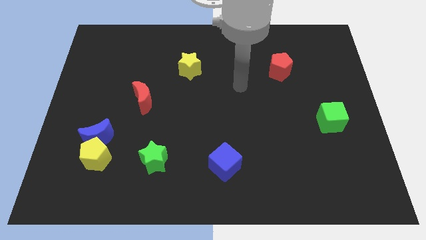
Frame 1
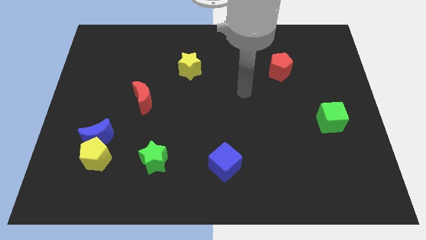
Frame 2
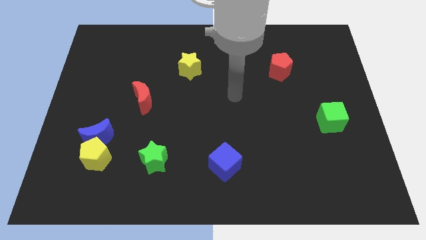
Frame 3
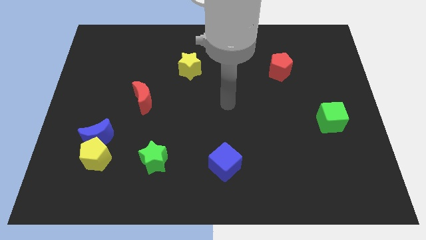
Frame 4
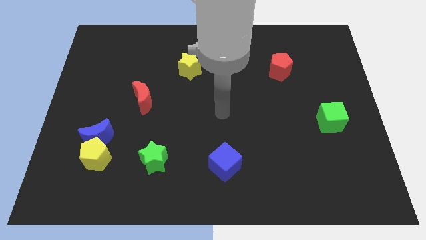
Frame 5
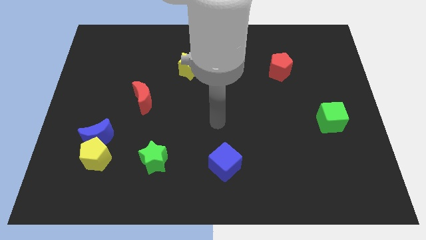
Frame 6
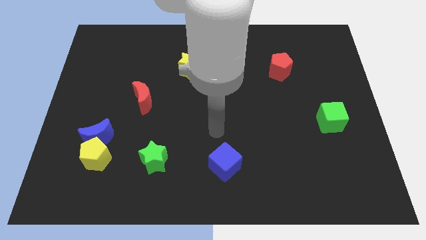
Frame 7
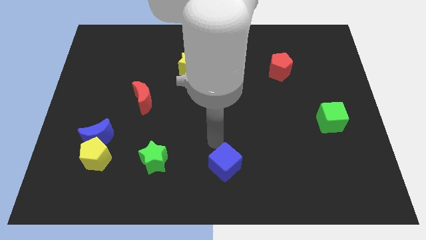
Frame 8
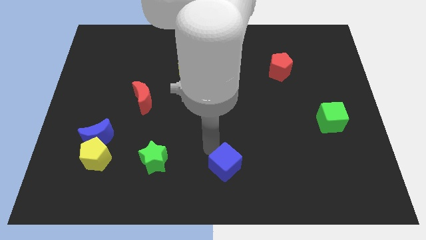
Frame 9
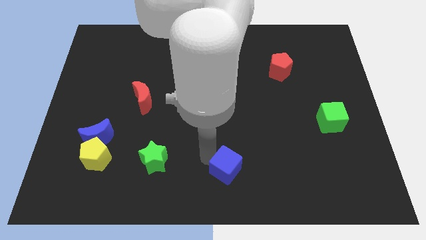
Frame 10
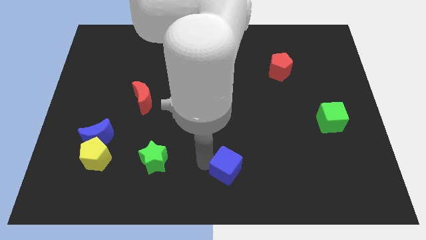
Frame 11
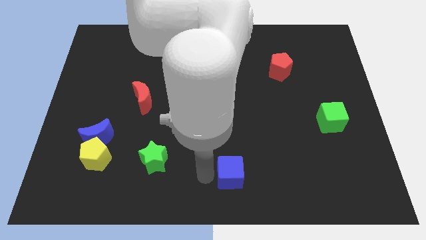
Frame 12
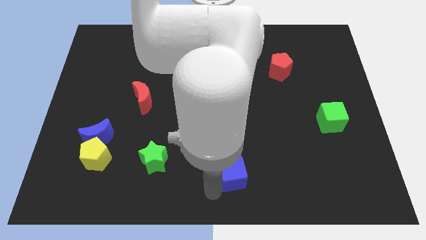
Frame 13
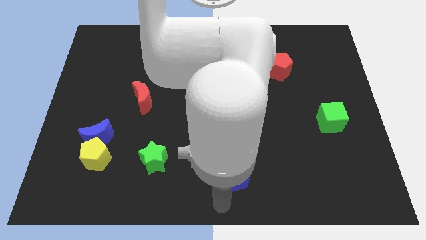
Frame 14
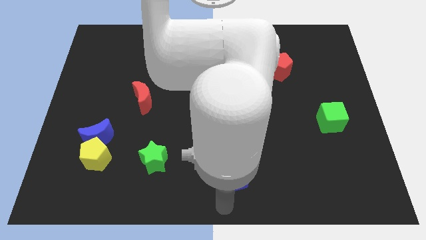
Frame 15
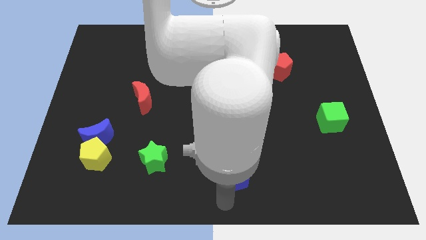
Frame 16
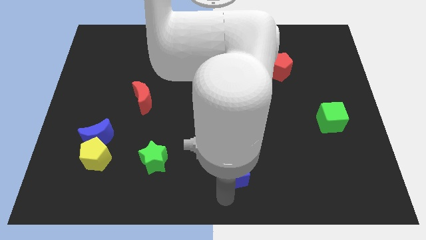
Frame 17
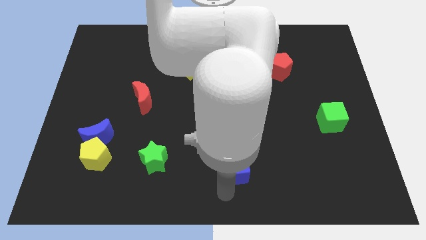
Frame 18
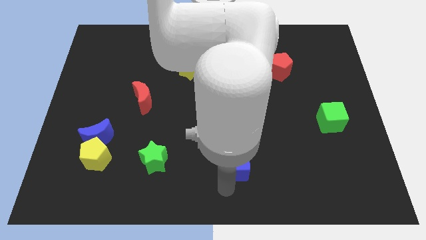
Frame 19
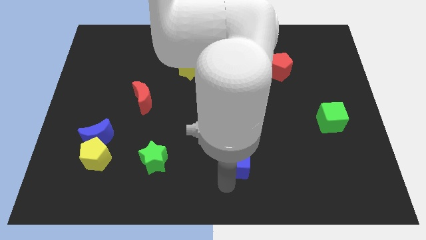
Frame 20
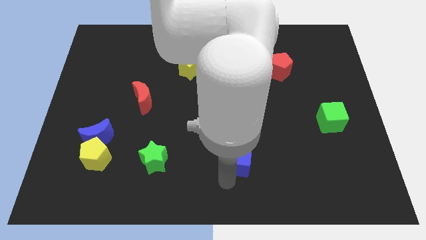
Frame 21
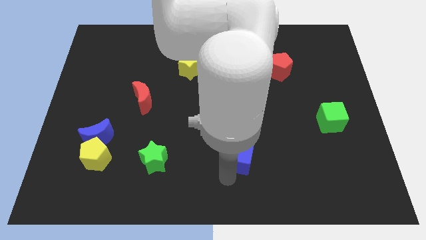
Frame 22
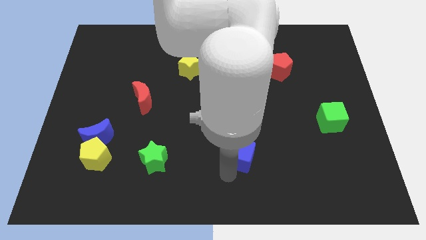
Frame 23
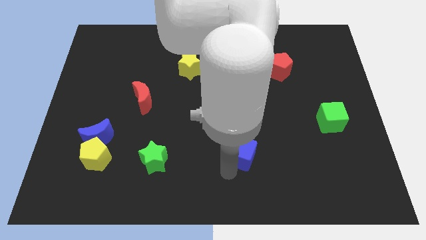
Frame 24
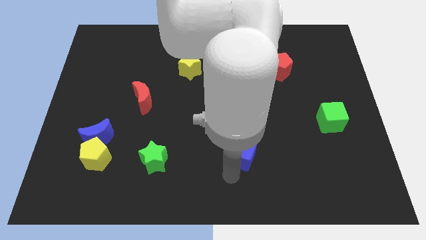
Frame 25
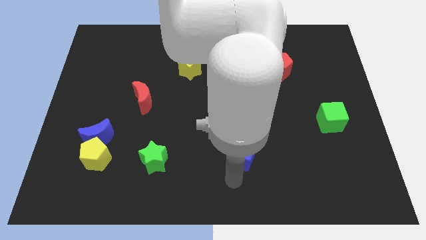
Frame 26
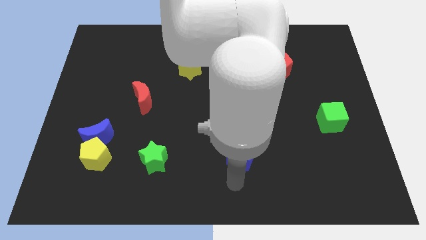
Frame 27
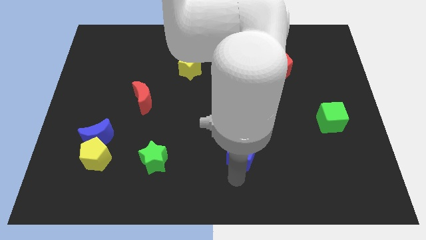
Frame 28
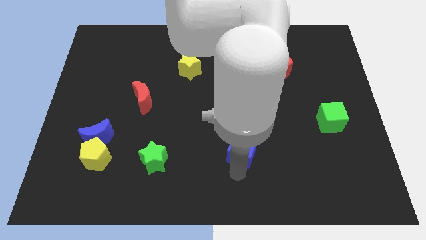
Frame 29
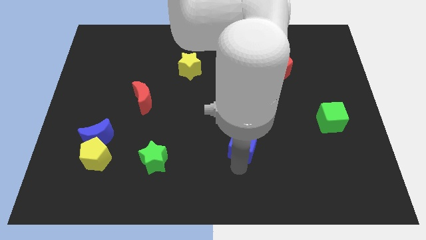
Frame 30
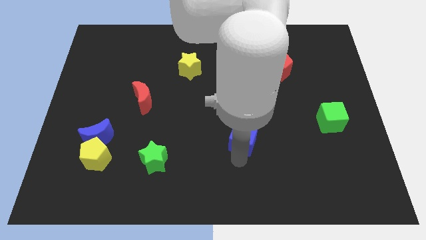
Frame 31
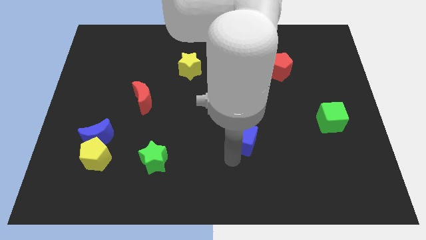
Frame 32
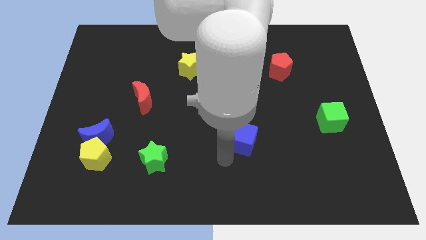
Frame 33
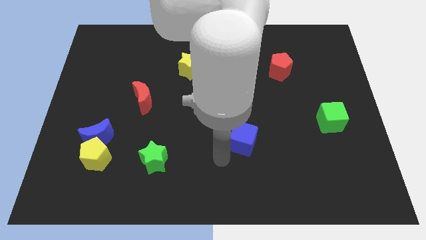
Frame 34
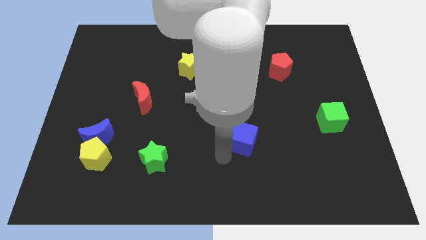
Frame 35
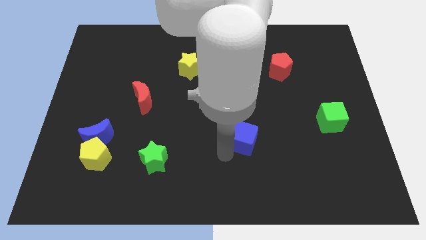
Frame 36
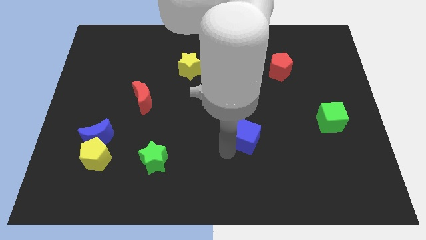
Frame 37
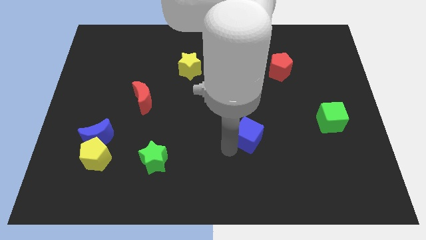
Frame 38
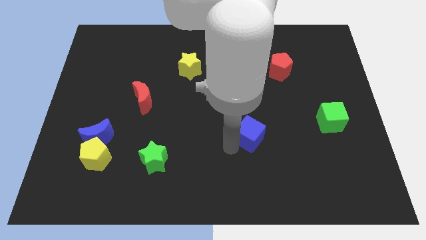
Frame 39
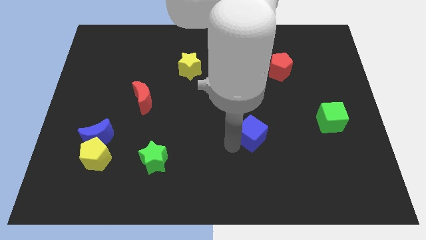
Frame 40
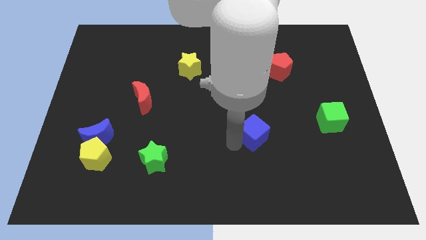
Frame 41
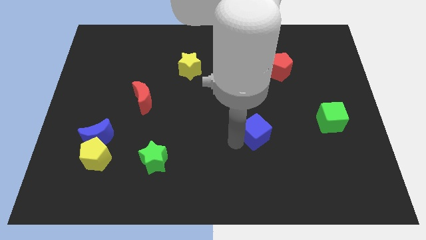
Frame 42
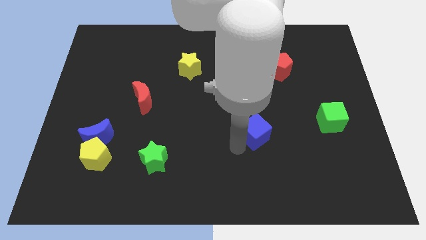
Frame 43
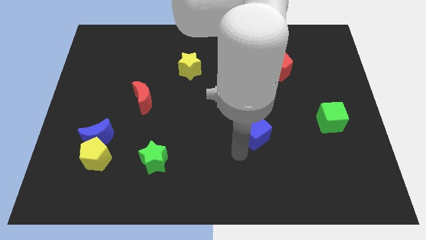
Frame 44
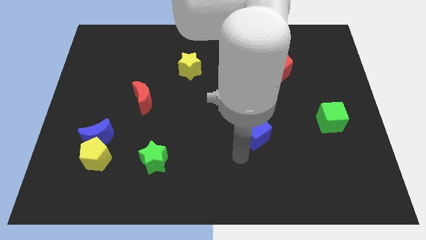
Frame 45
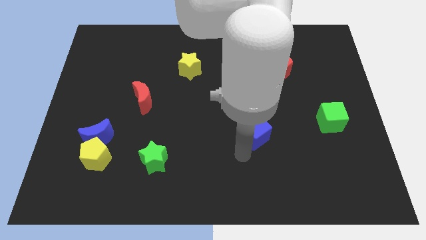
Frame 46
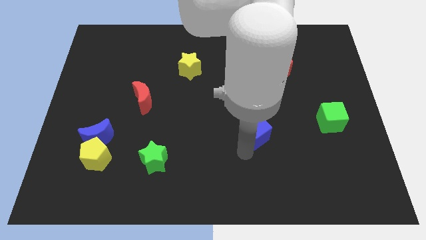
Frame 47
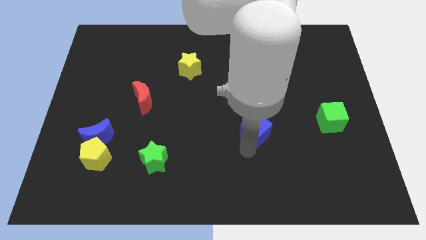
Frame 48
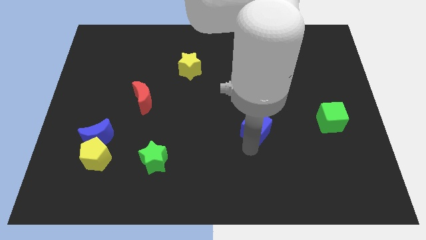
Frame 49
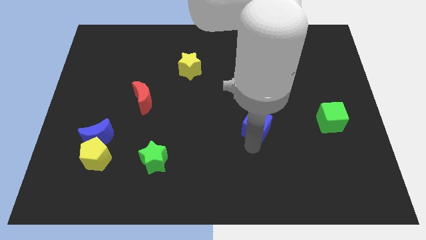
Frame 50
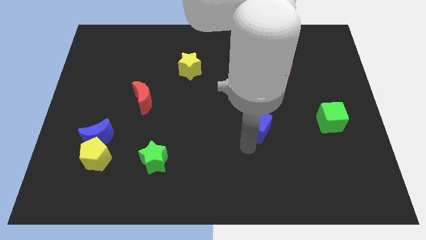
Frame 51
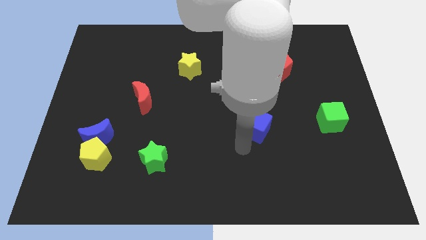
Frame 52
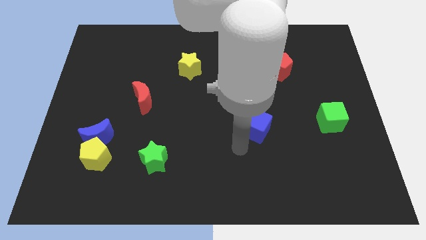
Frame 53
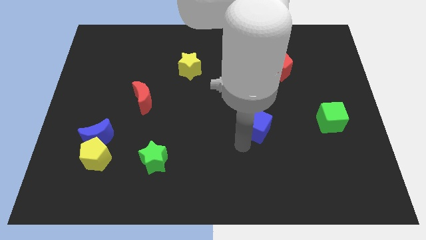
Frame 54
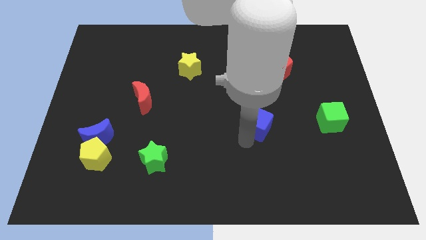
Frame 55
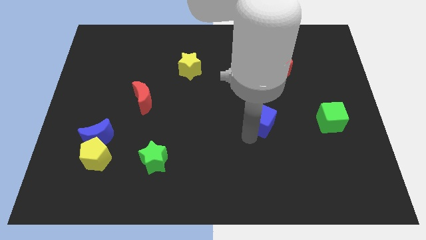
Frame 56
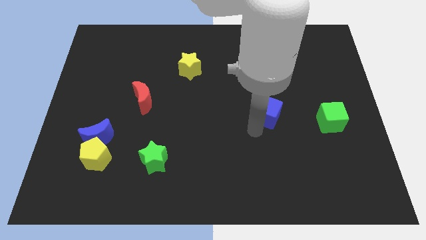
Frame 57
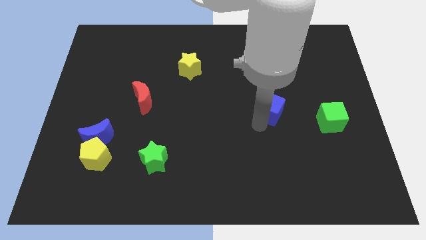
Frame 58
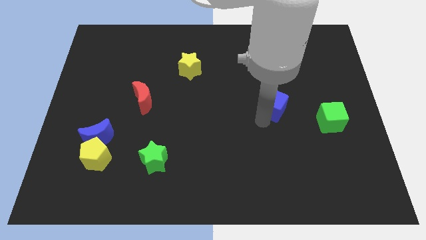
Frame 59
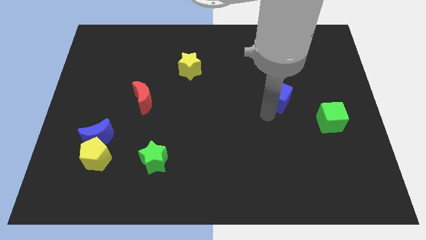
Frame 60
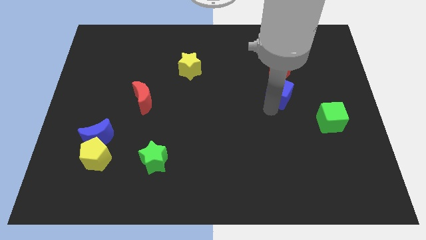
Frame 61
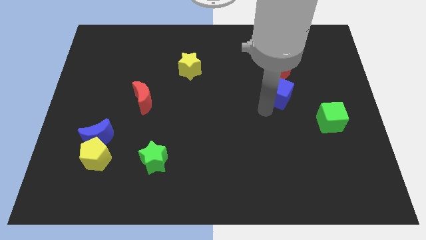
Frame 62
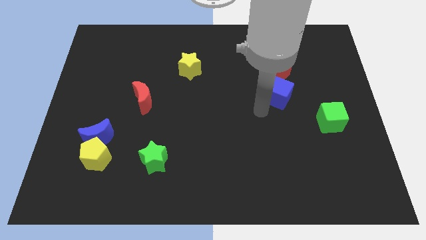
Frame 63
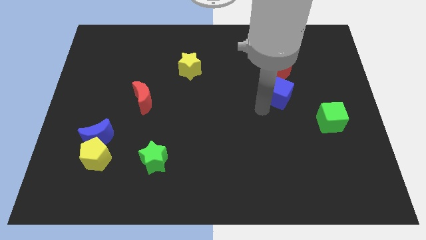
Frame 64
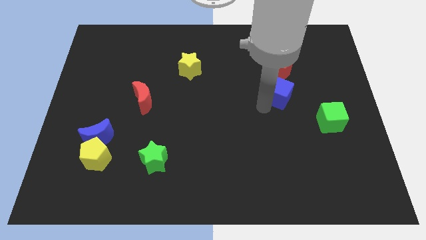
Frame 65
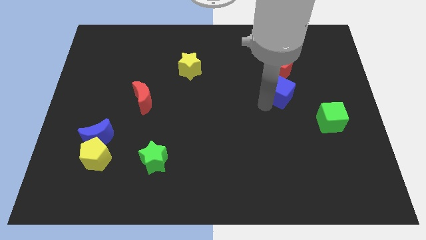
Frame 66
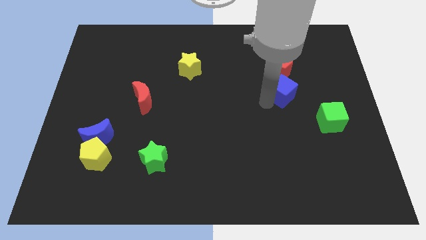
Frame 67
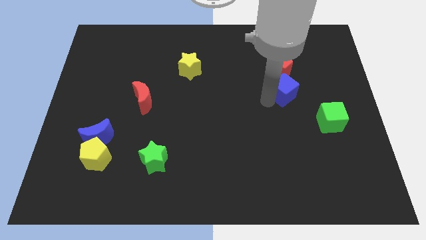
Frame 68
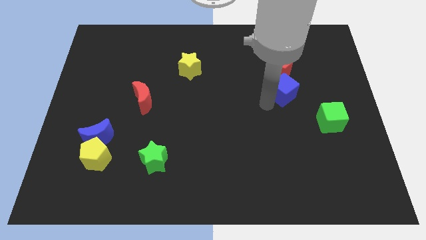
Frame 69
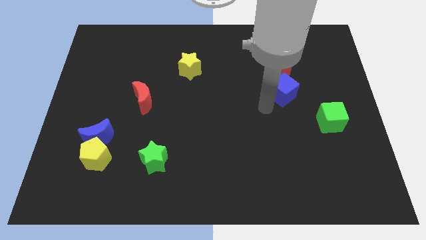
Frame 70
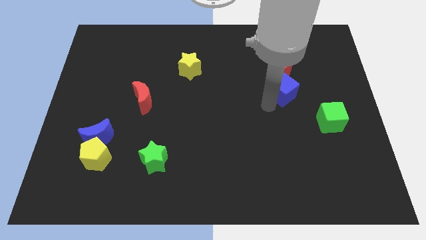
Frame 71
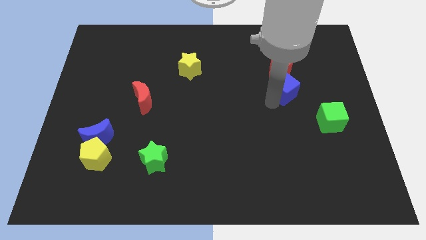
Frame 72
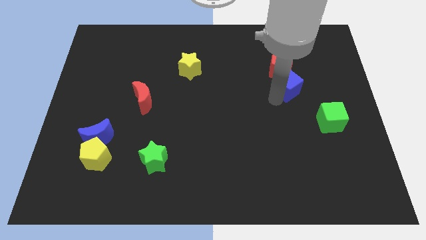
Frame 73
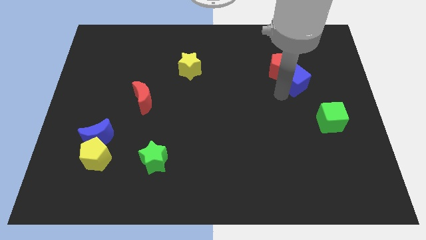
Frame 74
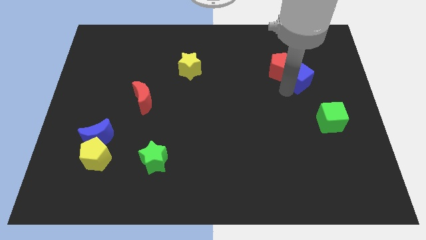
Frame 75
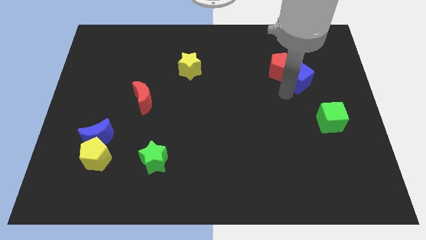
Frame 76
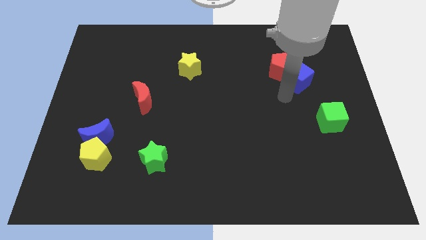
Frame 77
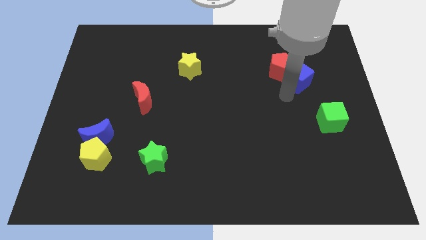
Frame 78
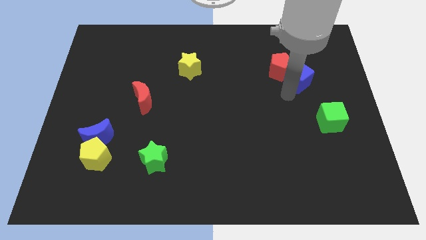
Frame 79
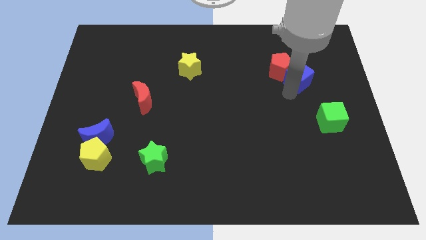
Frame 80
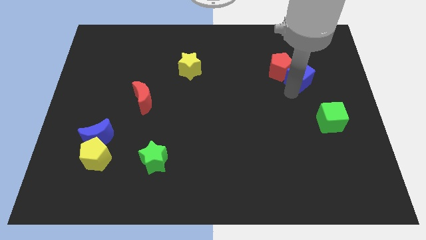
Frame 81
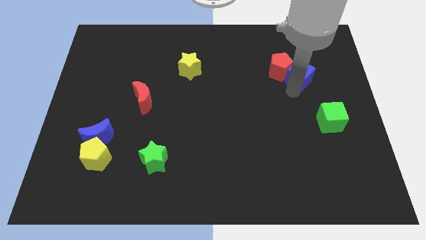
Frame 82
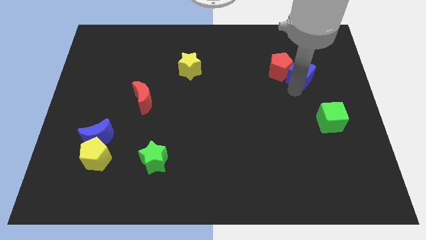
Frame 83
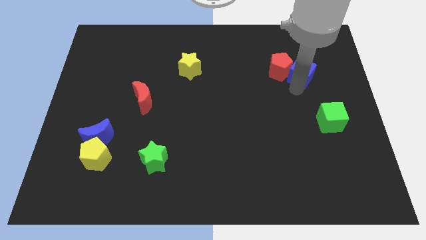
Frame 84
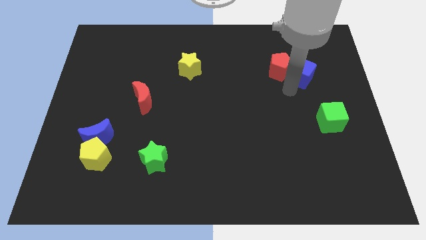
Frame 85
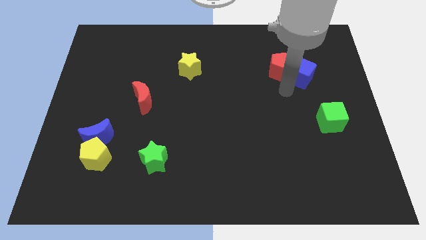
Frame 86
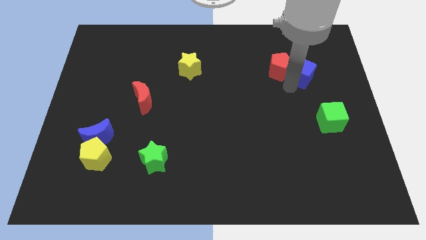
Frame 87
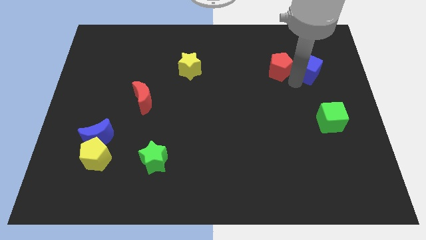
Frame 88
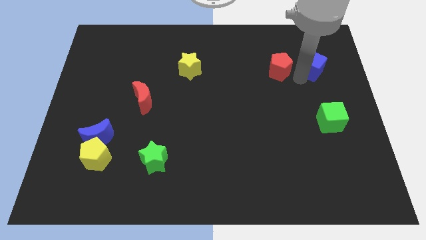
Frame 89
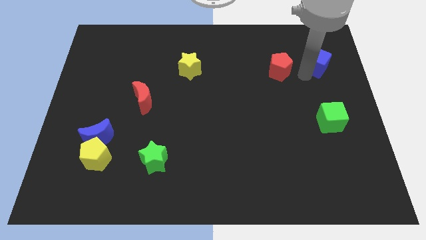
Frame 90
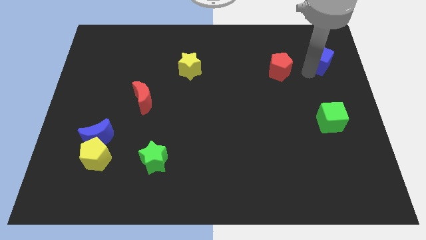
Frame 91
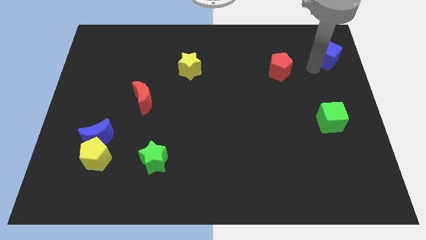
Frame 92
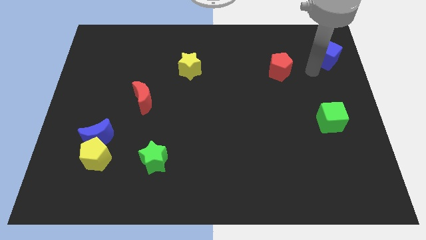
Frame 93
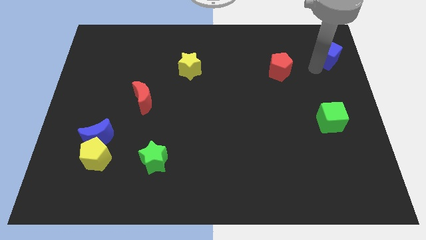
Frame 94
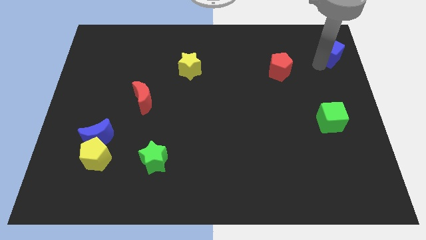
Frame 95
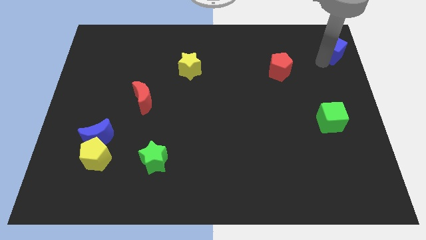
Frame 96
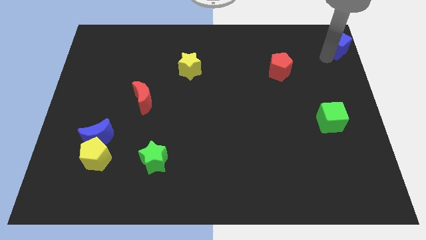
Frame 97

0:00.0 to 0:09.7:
push the blue cube to the top right corner
